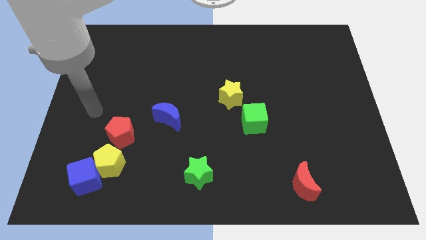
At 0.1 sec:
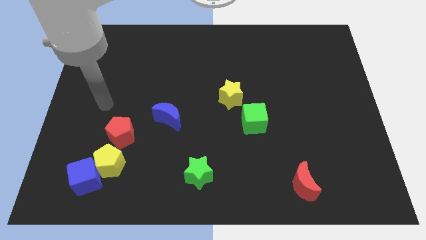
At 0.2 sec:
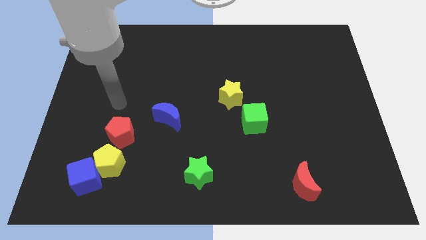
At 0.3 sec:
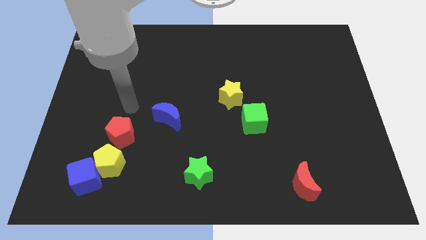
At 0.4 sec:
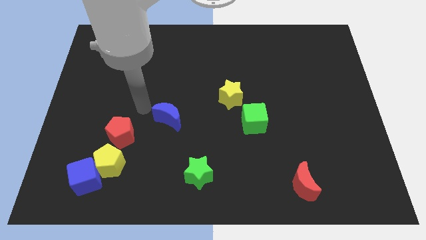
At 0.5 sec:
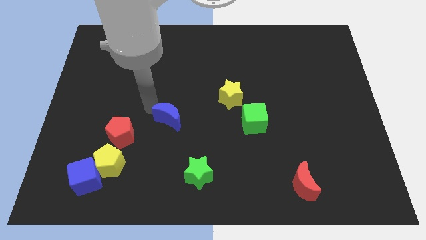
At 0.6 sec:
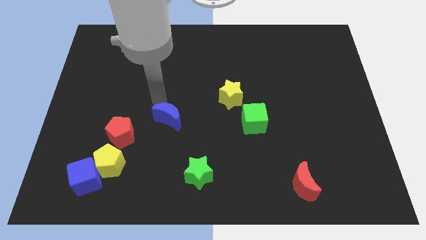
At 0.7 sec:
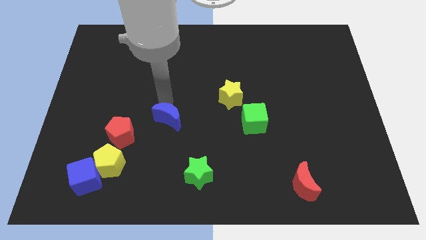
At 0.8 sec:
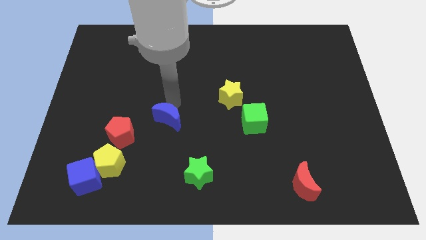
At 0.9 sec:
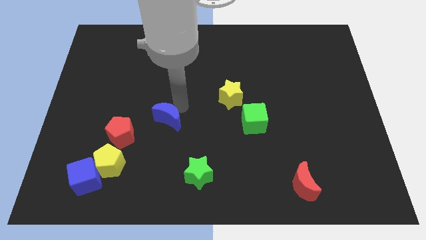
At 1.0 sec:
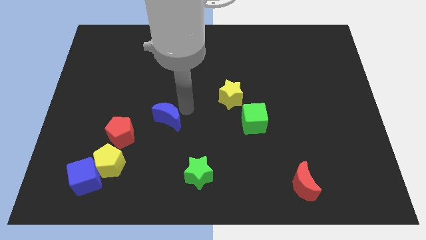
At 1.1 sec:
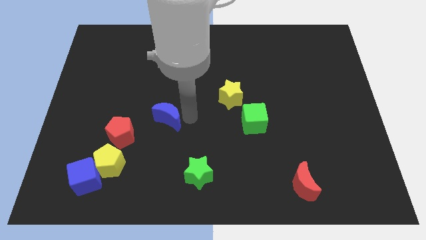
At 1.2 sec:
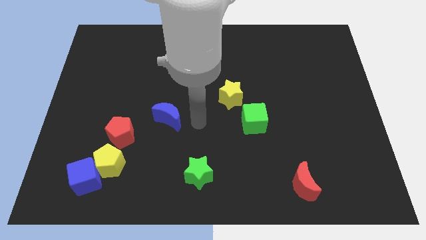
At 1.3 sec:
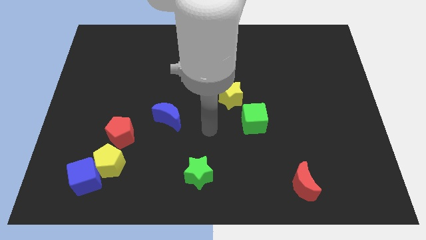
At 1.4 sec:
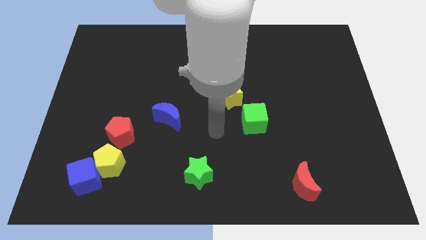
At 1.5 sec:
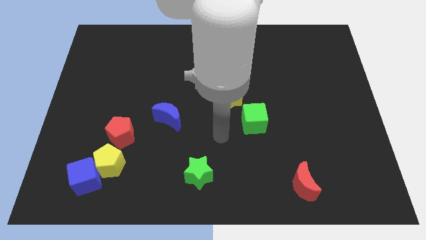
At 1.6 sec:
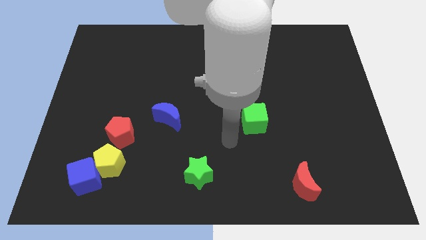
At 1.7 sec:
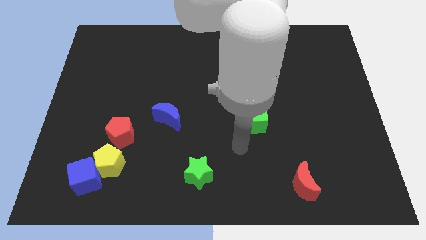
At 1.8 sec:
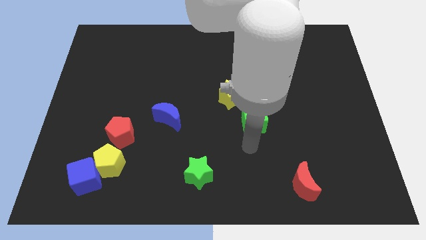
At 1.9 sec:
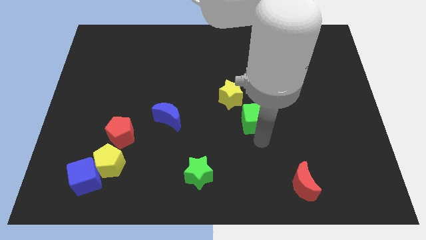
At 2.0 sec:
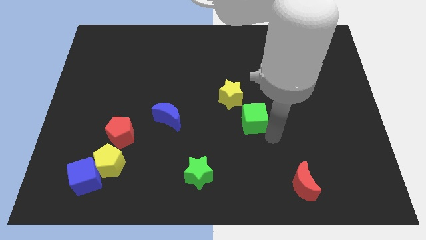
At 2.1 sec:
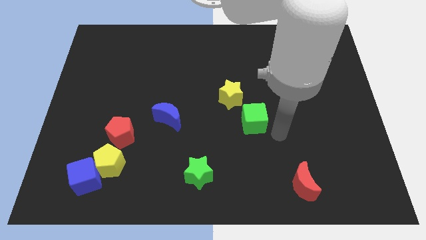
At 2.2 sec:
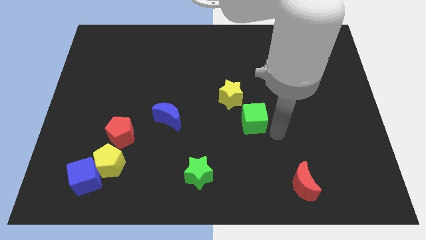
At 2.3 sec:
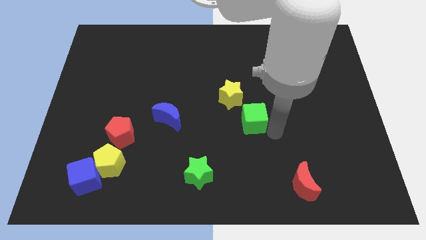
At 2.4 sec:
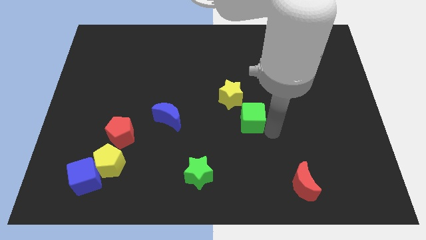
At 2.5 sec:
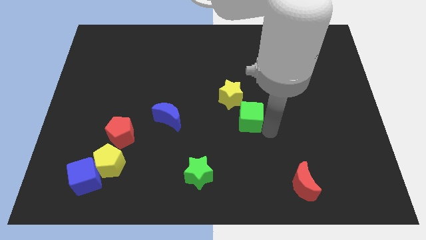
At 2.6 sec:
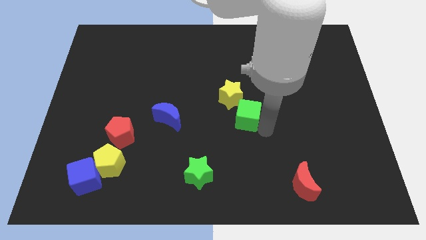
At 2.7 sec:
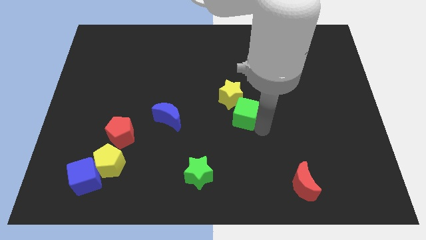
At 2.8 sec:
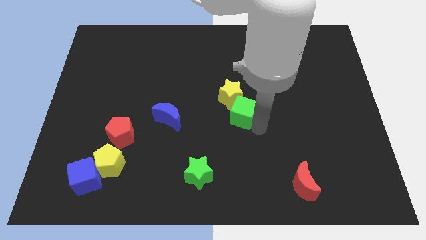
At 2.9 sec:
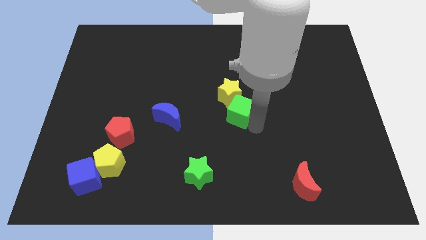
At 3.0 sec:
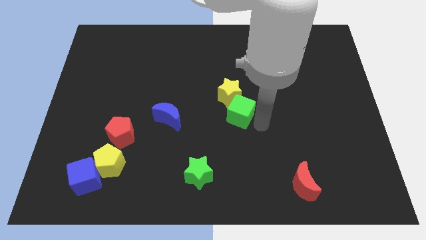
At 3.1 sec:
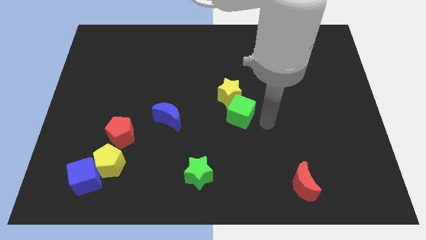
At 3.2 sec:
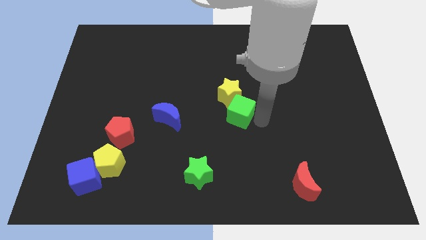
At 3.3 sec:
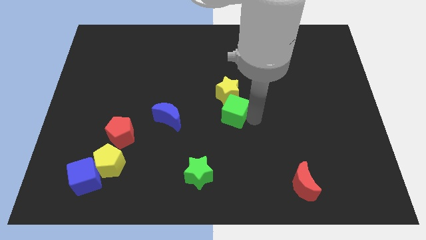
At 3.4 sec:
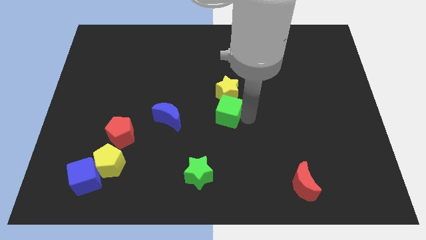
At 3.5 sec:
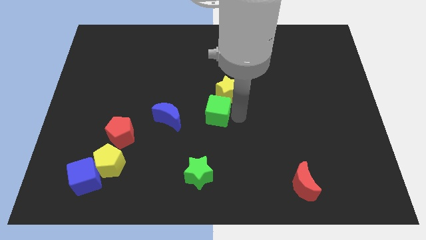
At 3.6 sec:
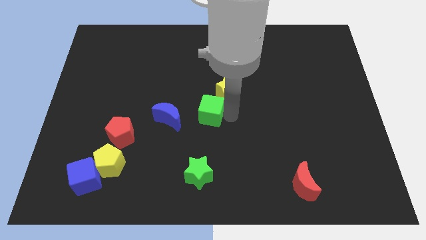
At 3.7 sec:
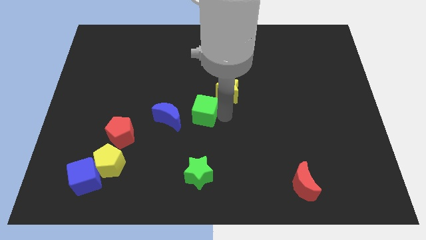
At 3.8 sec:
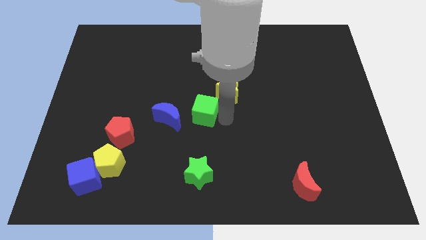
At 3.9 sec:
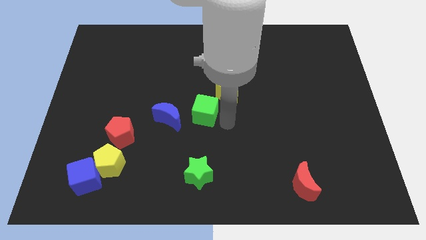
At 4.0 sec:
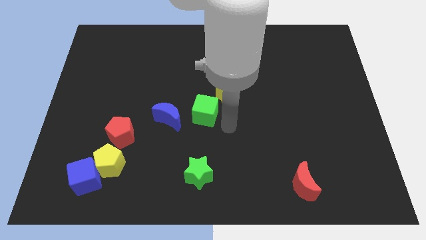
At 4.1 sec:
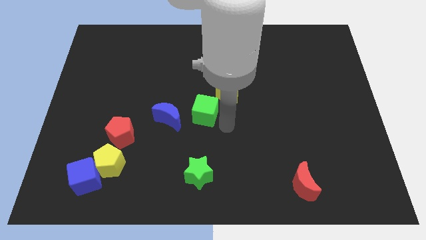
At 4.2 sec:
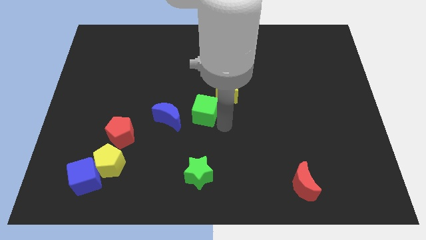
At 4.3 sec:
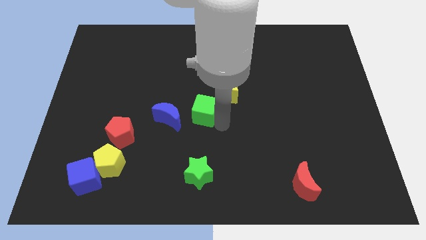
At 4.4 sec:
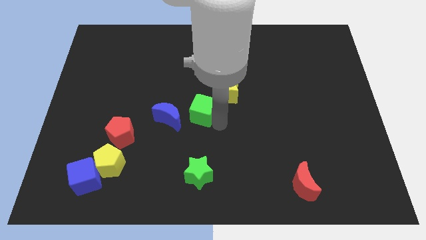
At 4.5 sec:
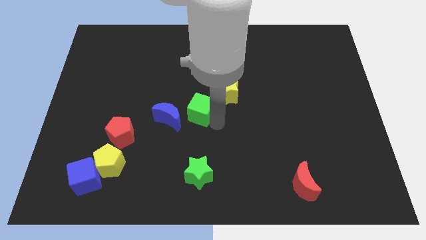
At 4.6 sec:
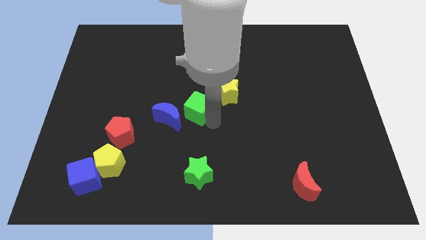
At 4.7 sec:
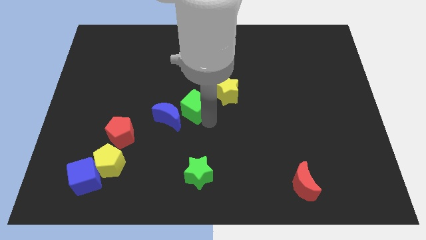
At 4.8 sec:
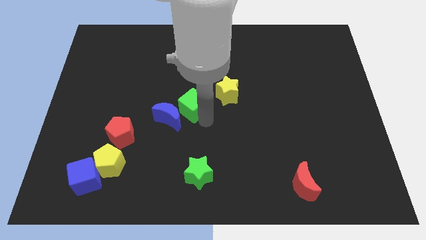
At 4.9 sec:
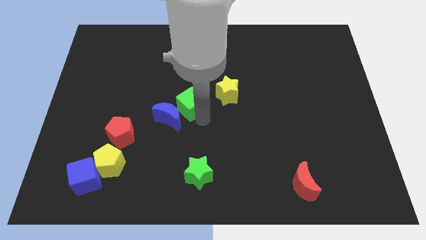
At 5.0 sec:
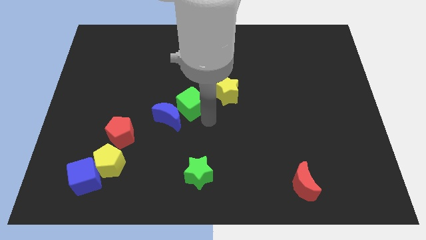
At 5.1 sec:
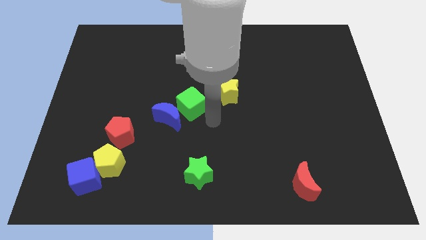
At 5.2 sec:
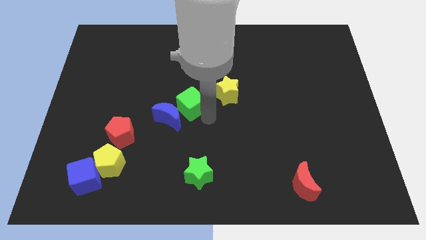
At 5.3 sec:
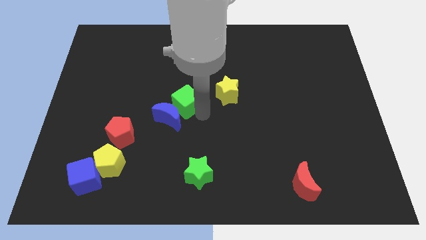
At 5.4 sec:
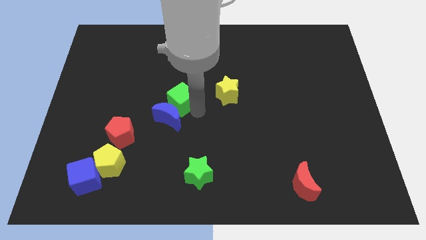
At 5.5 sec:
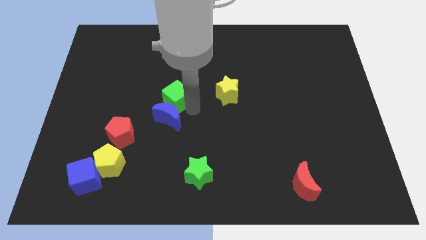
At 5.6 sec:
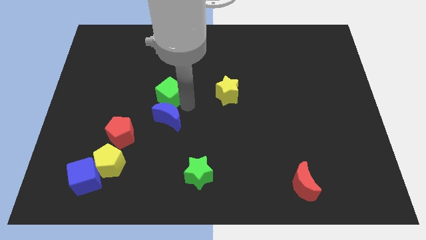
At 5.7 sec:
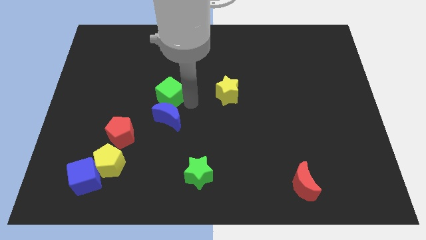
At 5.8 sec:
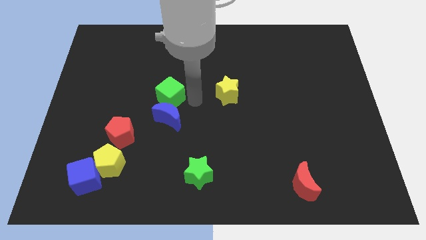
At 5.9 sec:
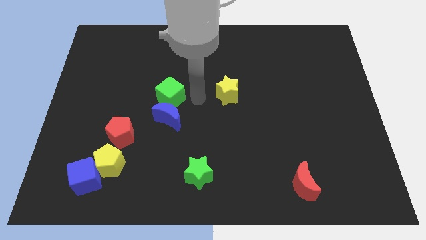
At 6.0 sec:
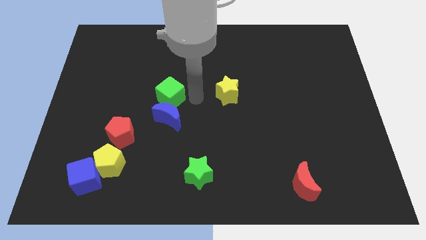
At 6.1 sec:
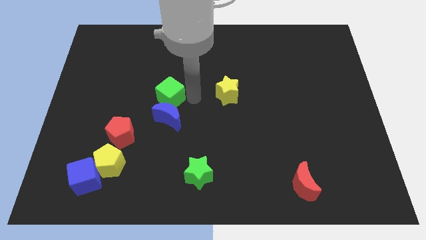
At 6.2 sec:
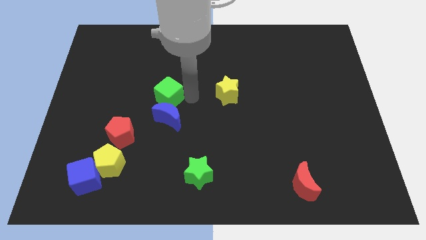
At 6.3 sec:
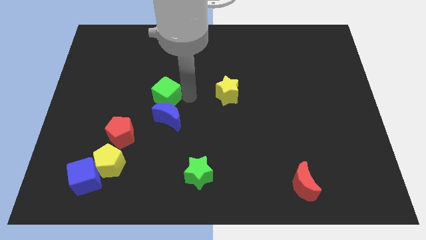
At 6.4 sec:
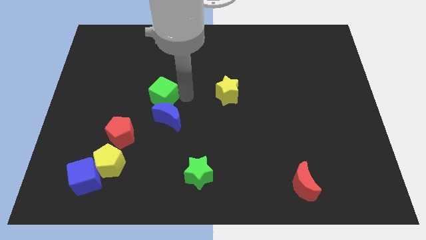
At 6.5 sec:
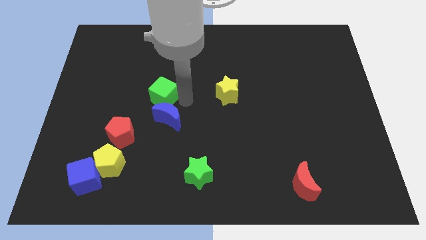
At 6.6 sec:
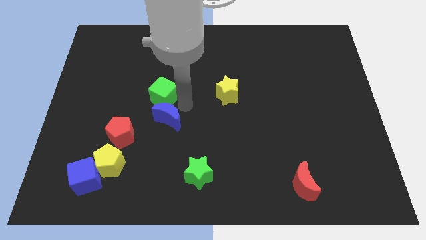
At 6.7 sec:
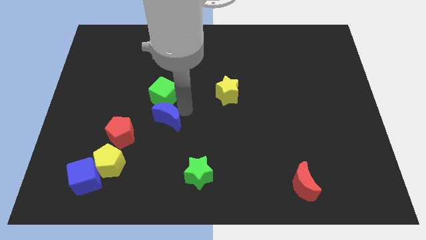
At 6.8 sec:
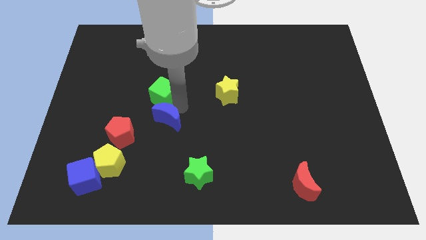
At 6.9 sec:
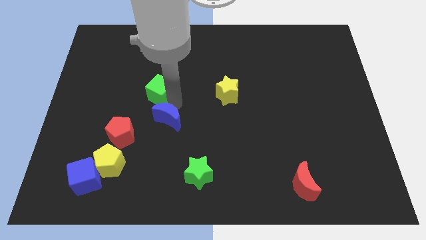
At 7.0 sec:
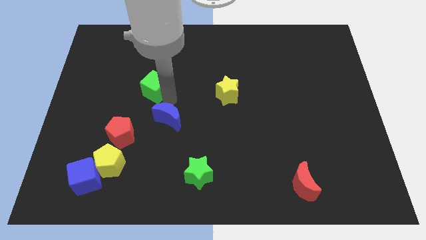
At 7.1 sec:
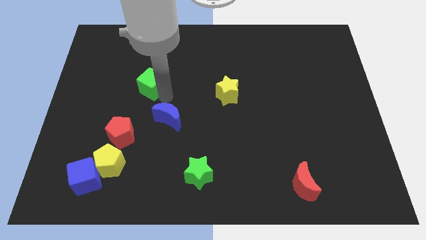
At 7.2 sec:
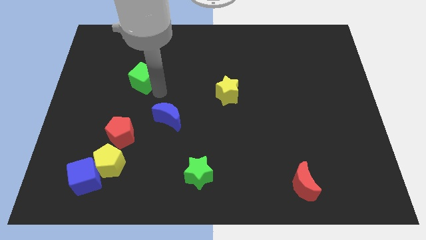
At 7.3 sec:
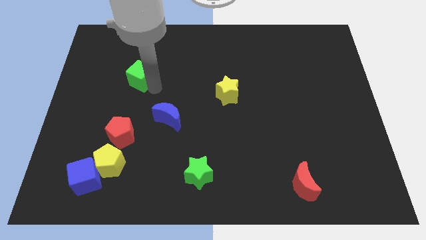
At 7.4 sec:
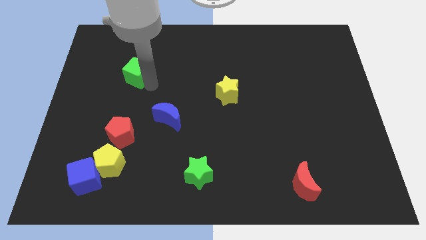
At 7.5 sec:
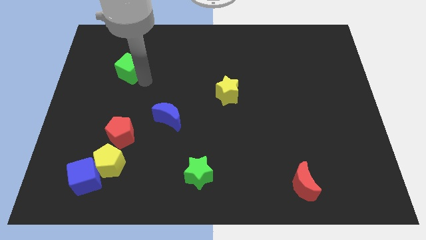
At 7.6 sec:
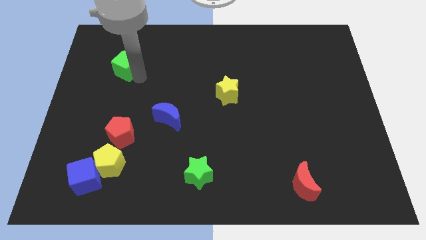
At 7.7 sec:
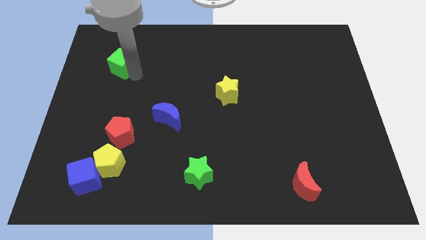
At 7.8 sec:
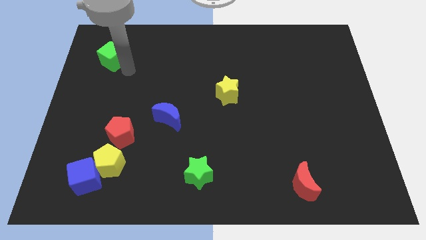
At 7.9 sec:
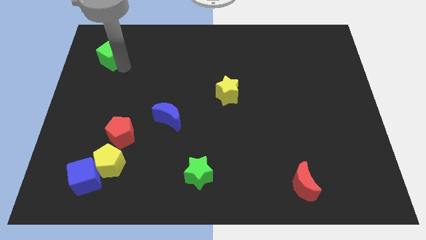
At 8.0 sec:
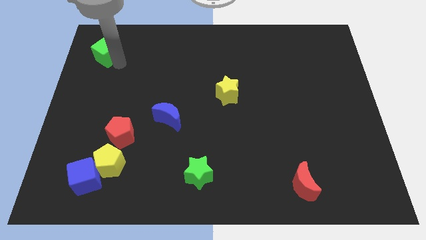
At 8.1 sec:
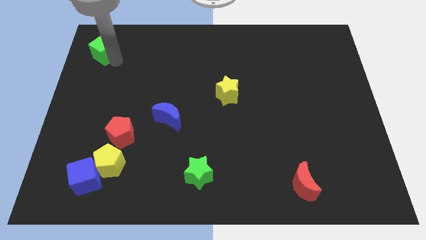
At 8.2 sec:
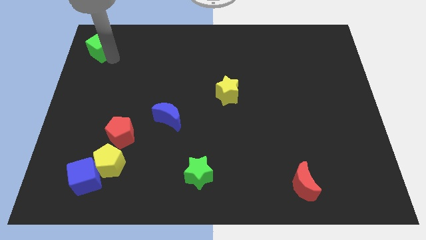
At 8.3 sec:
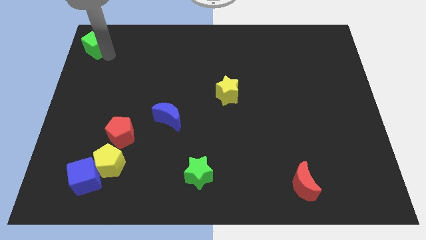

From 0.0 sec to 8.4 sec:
slide the green cube to the top left
